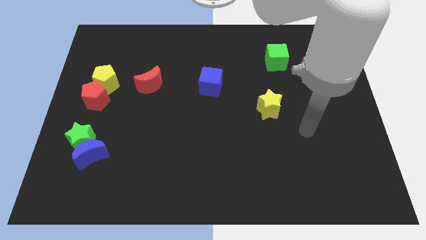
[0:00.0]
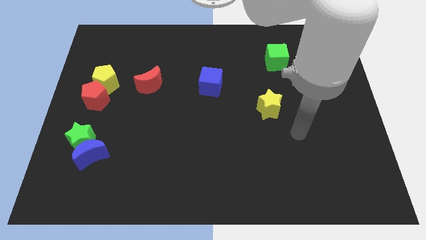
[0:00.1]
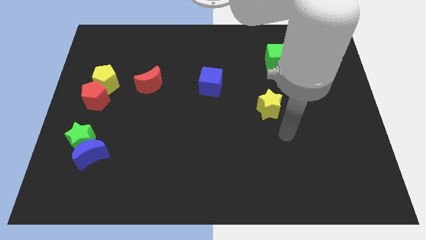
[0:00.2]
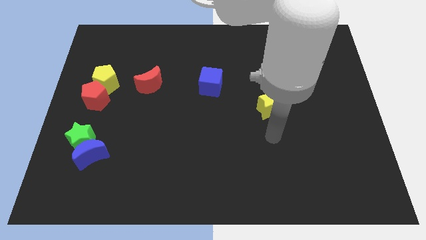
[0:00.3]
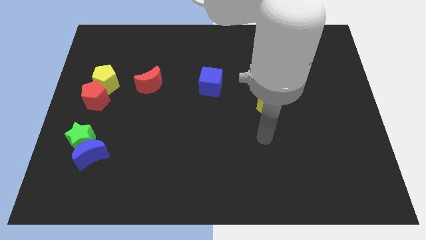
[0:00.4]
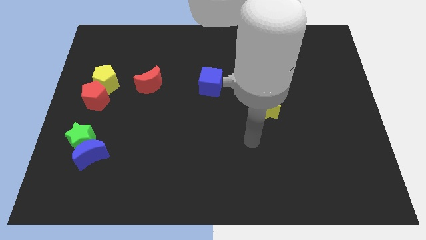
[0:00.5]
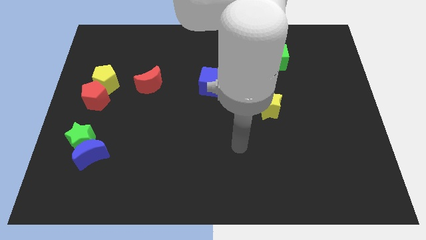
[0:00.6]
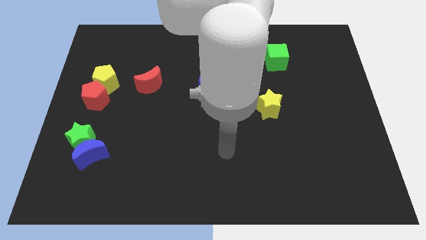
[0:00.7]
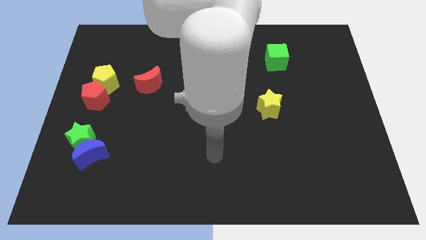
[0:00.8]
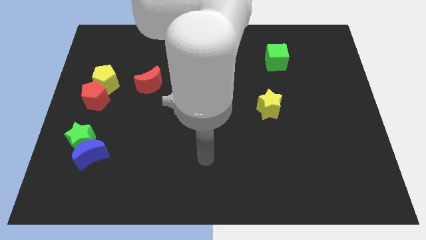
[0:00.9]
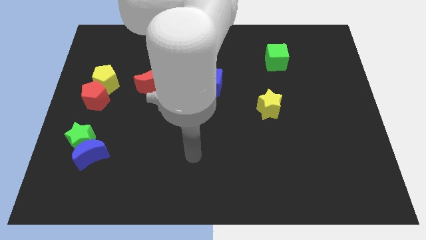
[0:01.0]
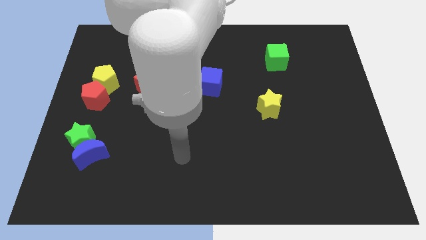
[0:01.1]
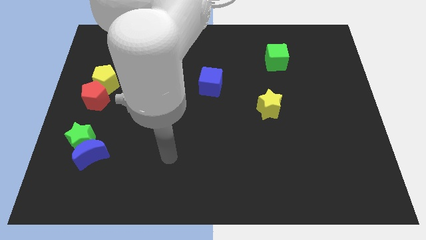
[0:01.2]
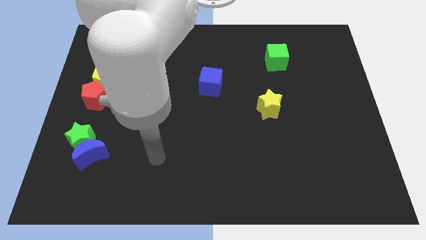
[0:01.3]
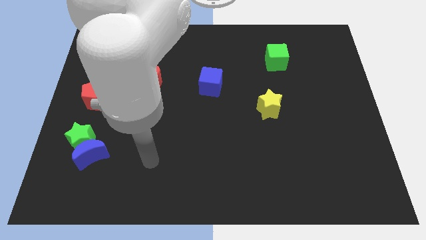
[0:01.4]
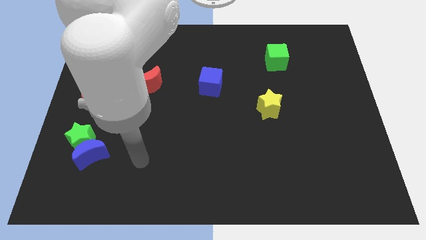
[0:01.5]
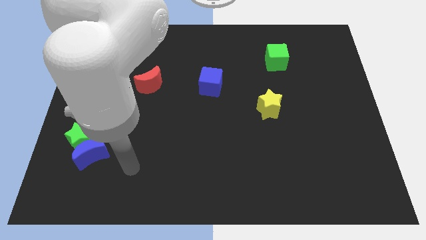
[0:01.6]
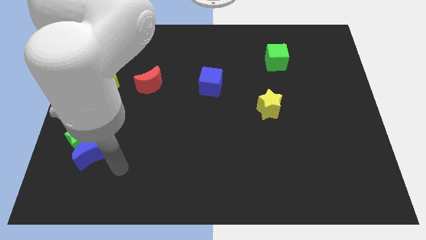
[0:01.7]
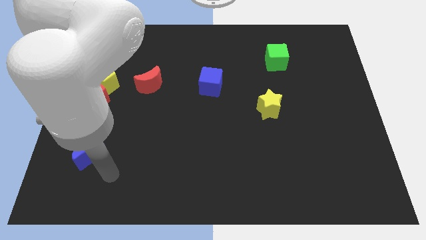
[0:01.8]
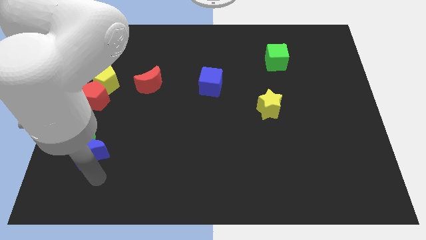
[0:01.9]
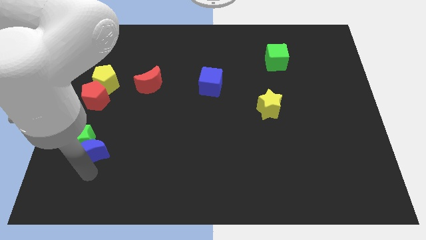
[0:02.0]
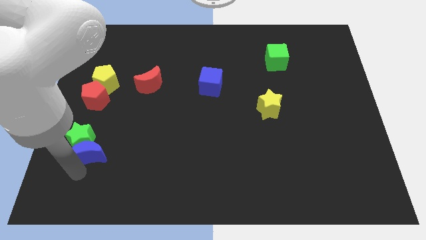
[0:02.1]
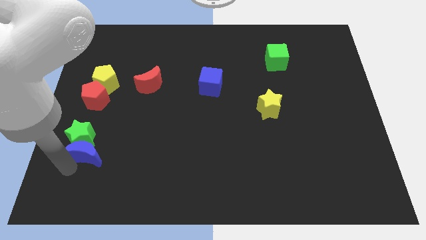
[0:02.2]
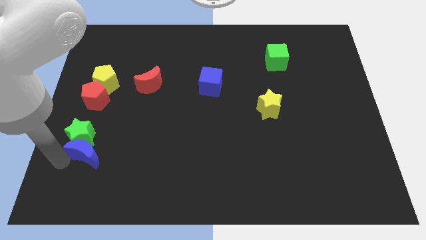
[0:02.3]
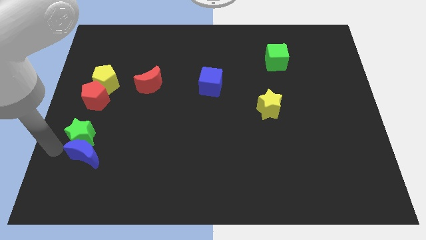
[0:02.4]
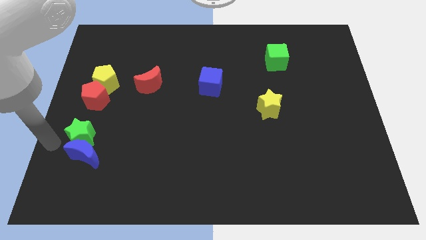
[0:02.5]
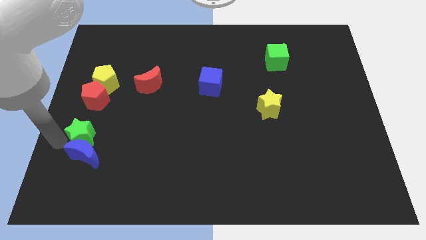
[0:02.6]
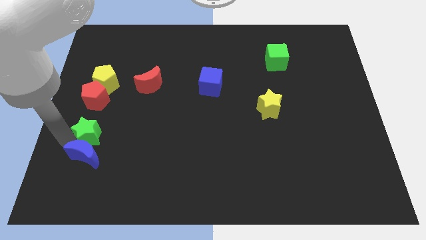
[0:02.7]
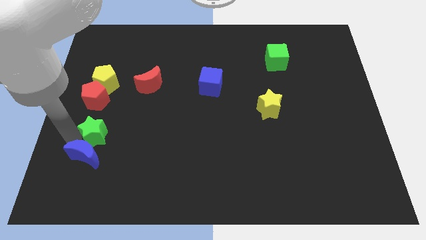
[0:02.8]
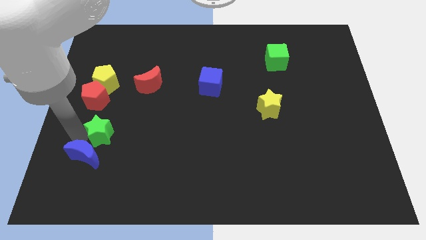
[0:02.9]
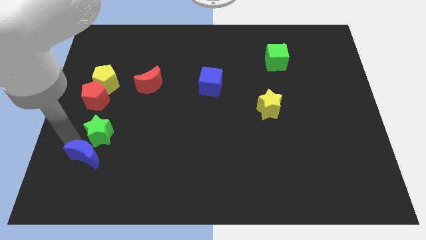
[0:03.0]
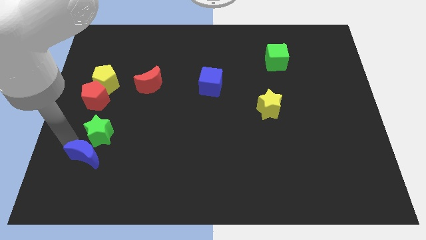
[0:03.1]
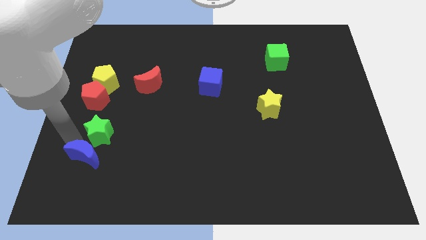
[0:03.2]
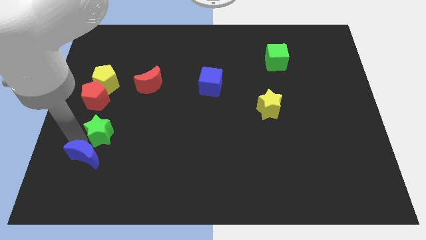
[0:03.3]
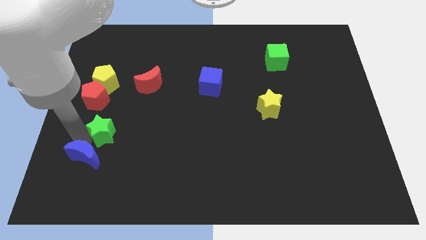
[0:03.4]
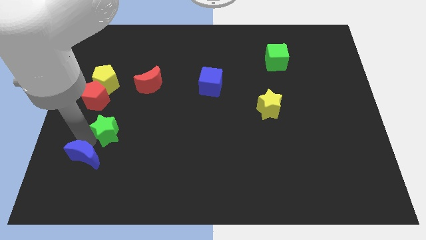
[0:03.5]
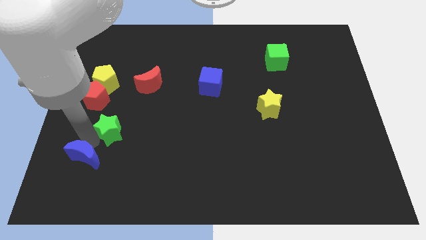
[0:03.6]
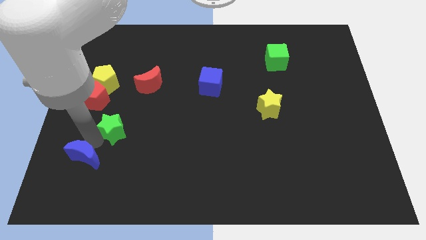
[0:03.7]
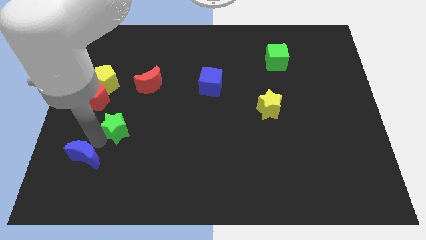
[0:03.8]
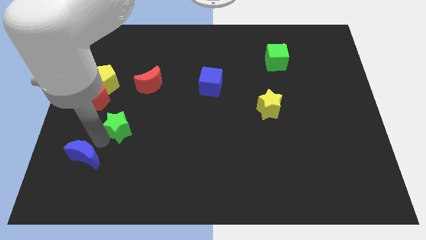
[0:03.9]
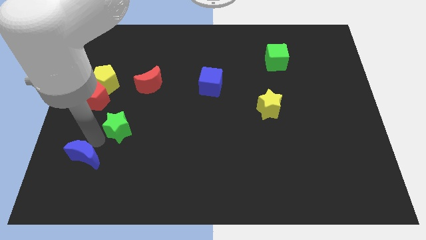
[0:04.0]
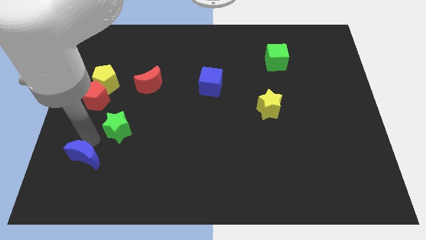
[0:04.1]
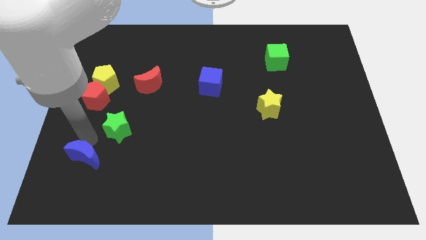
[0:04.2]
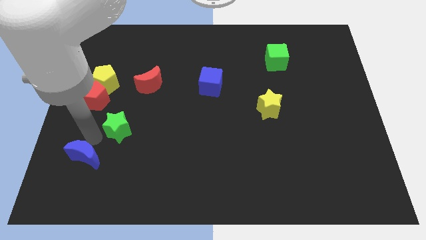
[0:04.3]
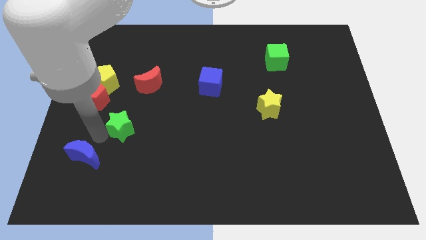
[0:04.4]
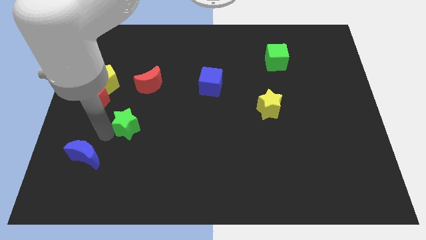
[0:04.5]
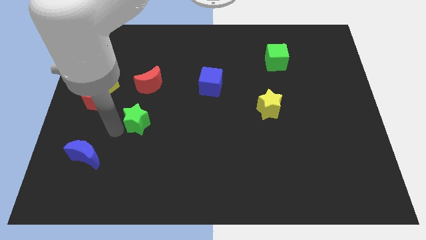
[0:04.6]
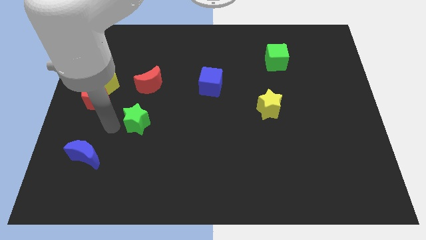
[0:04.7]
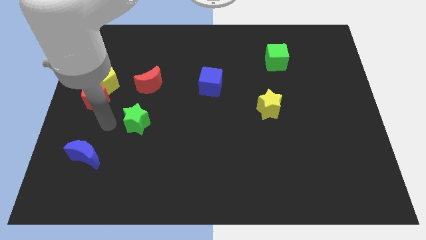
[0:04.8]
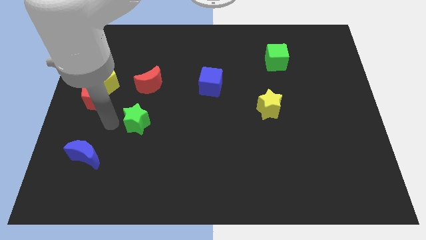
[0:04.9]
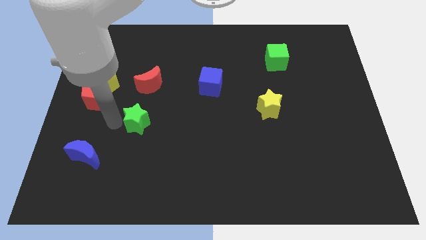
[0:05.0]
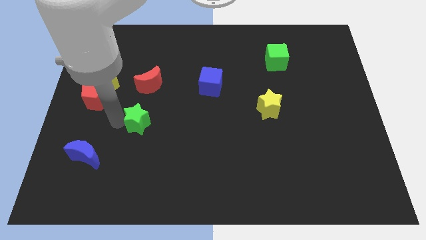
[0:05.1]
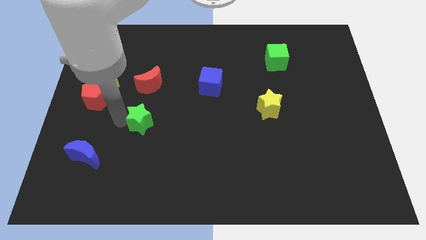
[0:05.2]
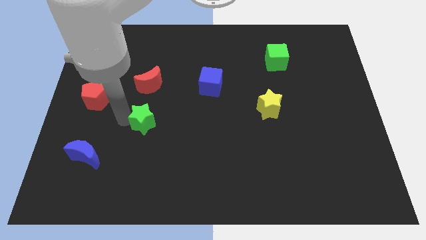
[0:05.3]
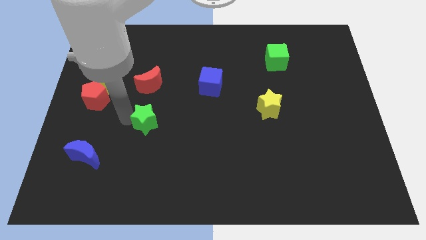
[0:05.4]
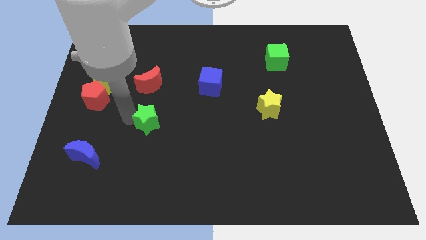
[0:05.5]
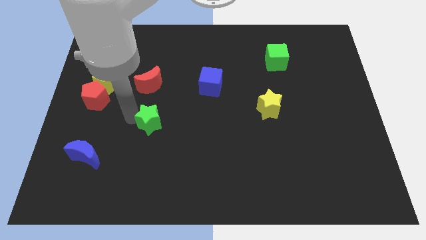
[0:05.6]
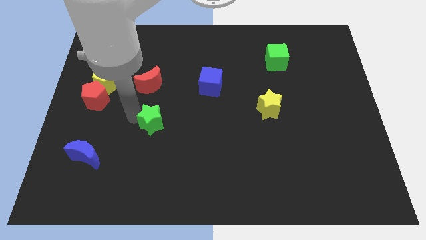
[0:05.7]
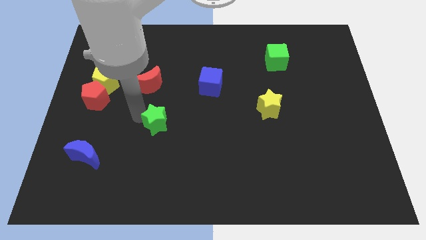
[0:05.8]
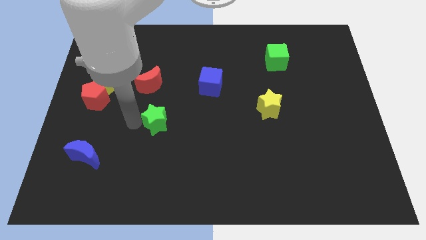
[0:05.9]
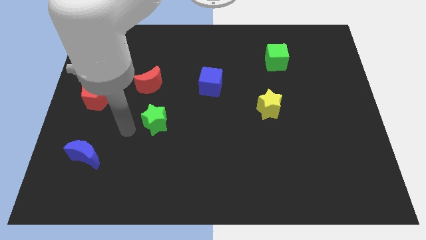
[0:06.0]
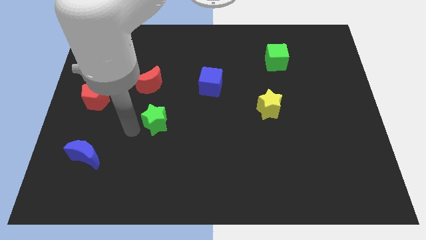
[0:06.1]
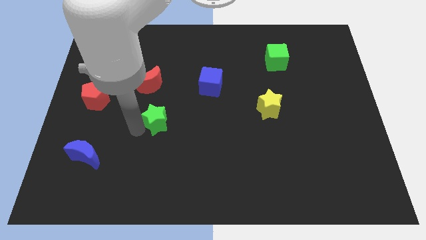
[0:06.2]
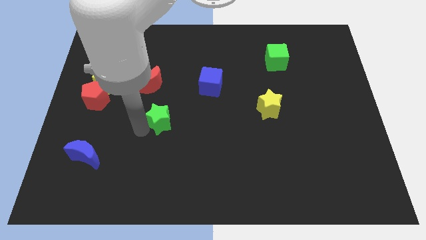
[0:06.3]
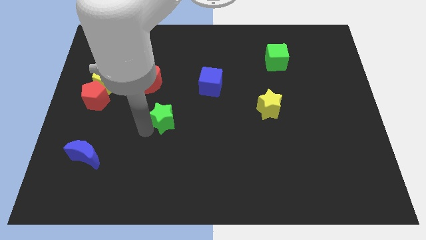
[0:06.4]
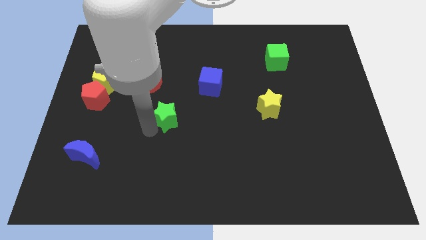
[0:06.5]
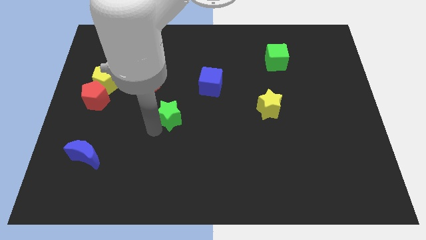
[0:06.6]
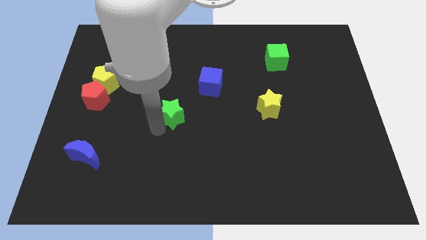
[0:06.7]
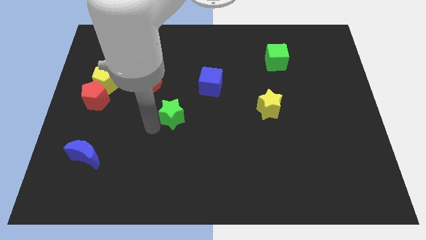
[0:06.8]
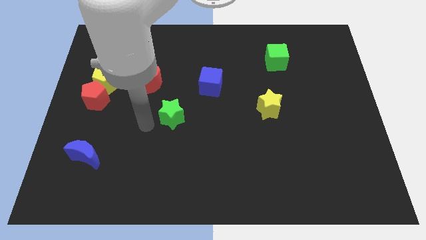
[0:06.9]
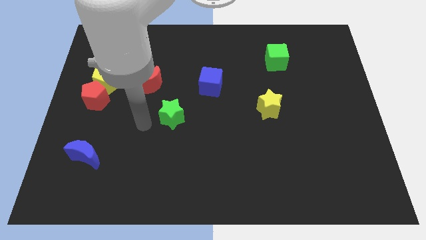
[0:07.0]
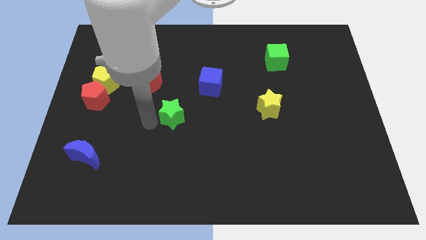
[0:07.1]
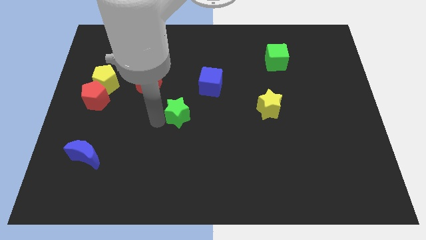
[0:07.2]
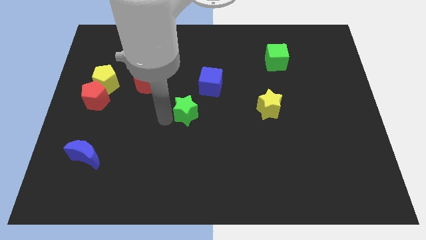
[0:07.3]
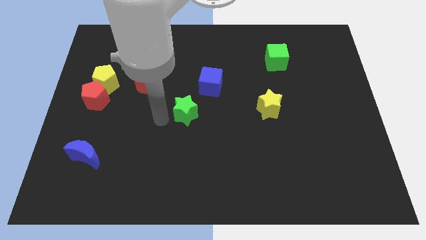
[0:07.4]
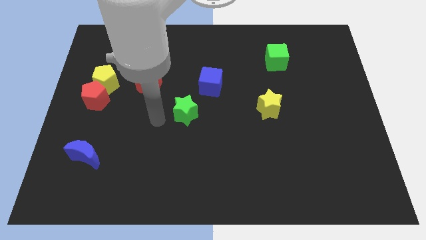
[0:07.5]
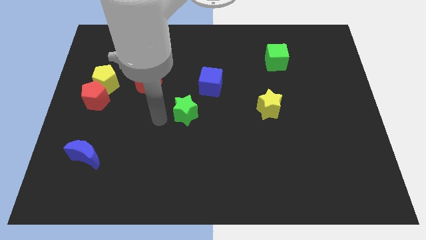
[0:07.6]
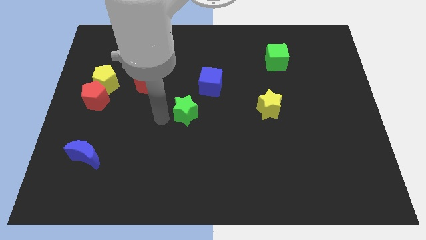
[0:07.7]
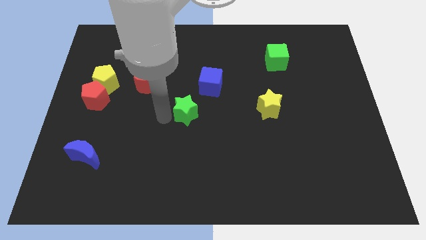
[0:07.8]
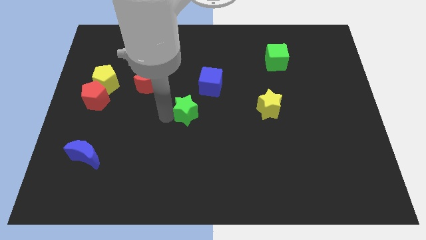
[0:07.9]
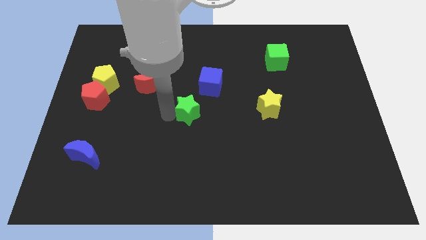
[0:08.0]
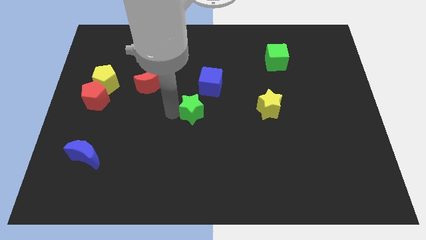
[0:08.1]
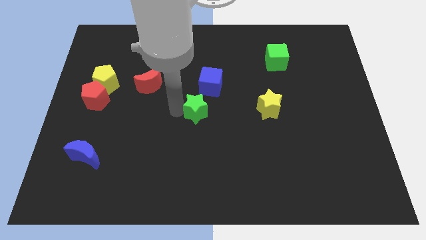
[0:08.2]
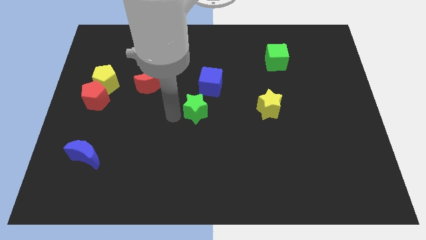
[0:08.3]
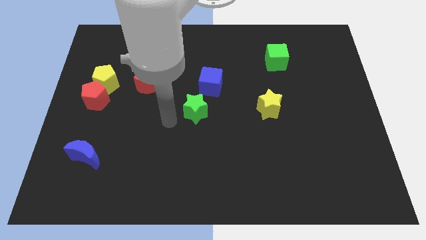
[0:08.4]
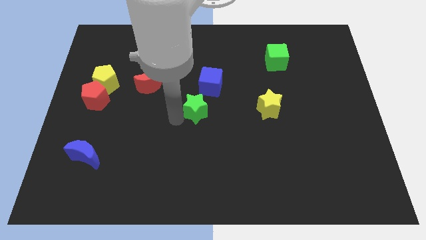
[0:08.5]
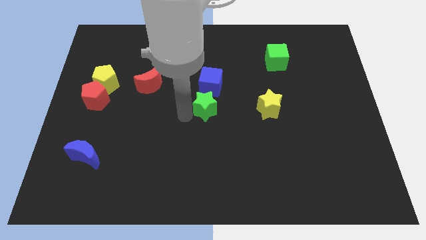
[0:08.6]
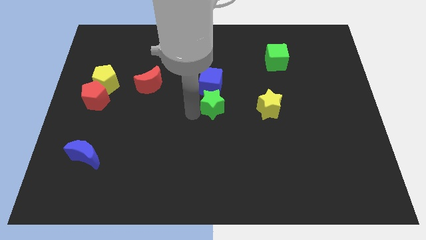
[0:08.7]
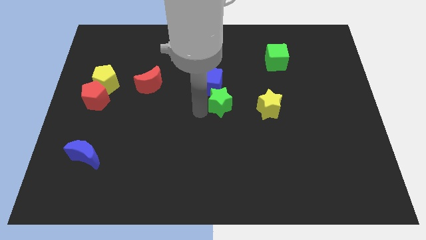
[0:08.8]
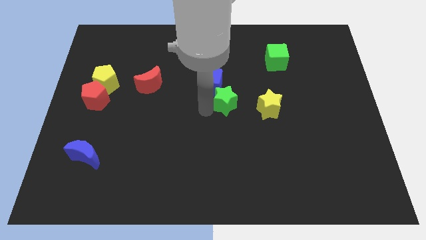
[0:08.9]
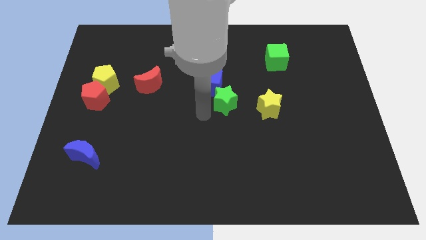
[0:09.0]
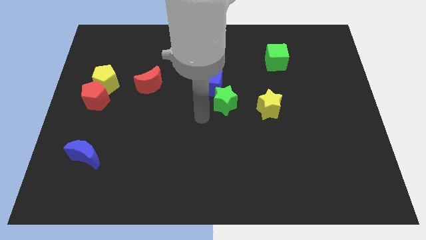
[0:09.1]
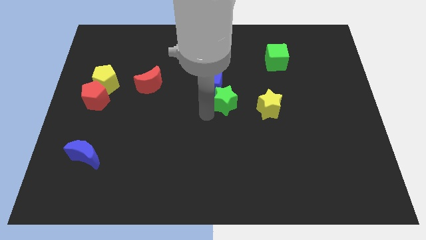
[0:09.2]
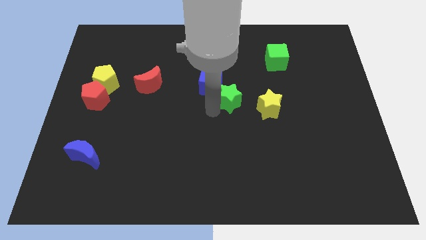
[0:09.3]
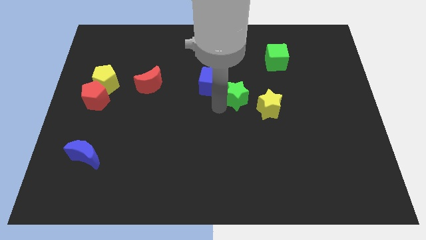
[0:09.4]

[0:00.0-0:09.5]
move the green star to the top left of the yellow star
